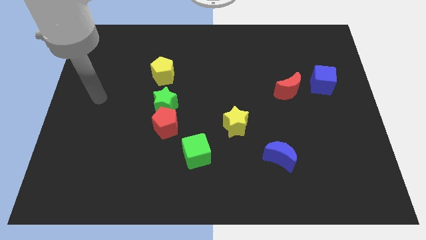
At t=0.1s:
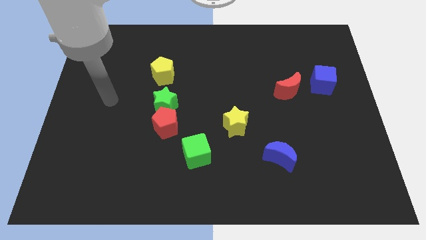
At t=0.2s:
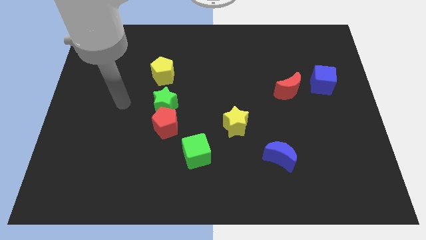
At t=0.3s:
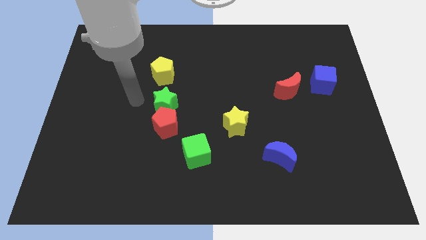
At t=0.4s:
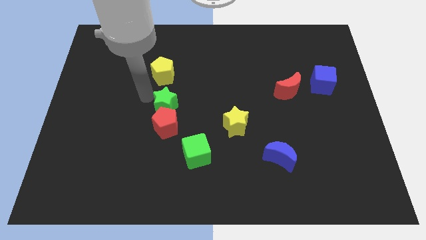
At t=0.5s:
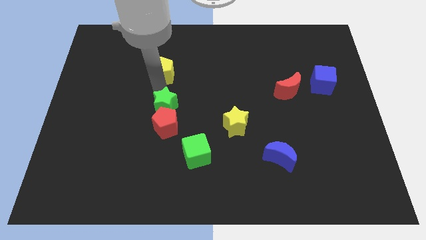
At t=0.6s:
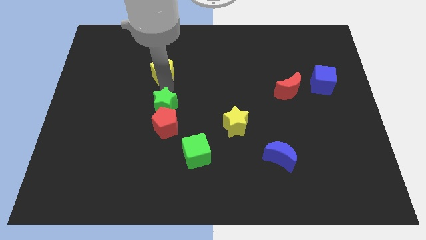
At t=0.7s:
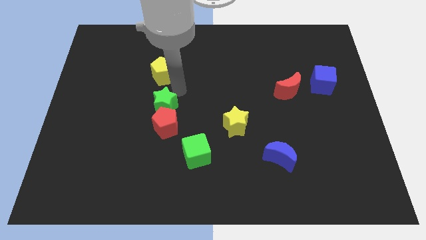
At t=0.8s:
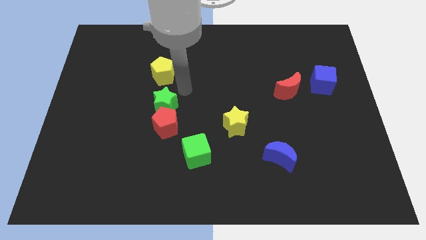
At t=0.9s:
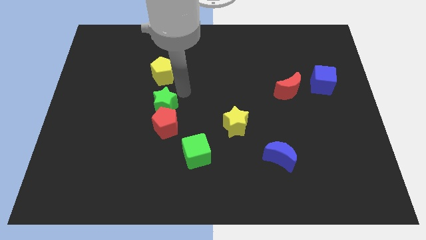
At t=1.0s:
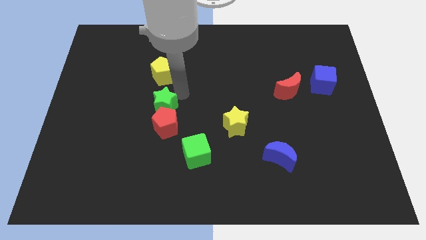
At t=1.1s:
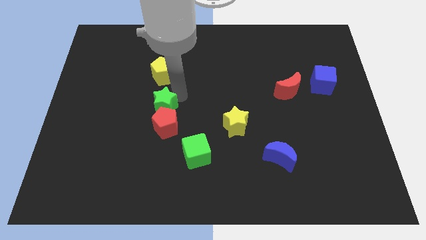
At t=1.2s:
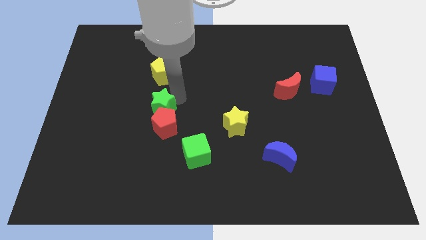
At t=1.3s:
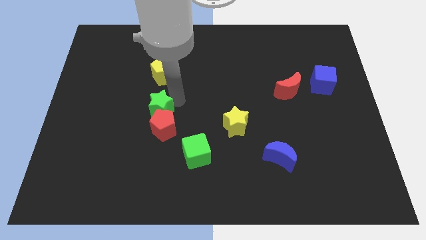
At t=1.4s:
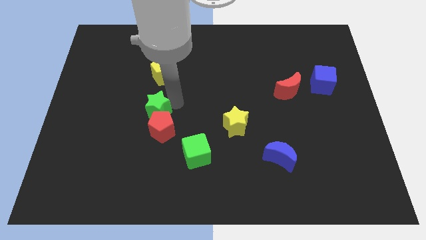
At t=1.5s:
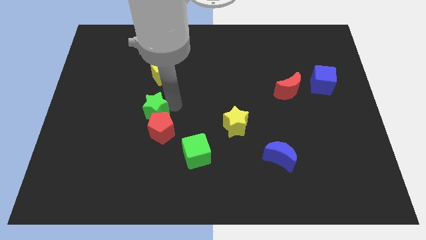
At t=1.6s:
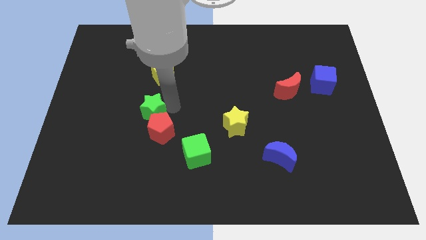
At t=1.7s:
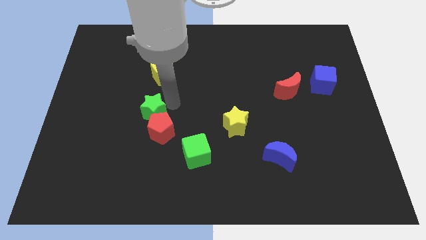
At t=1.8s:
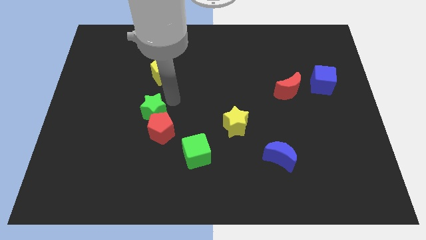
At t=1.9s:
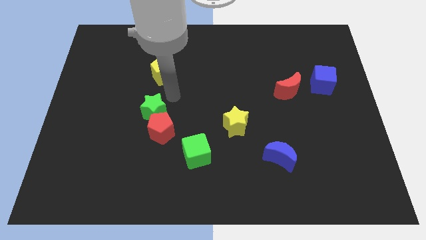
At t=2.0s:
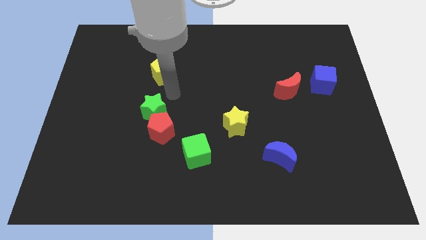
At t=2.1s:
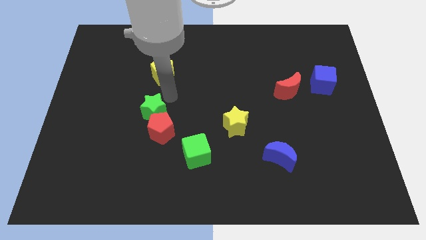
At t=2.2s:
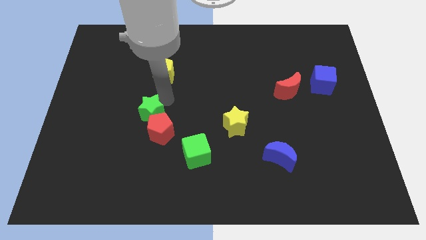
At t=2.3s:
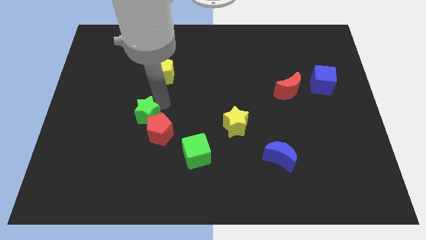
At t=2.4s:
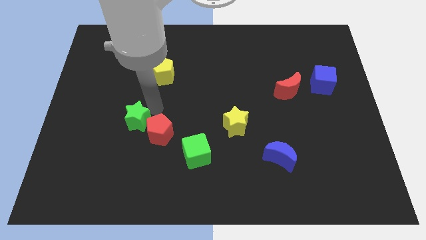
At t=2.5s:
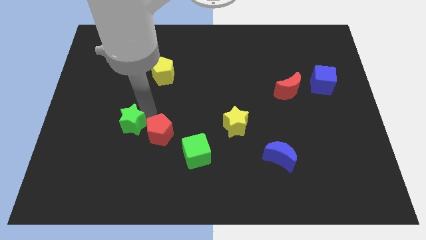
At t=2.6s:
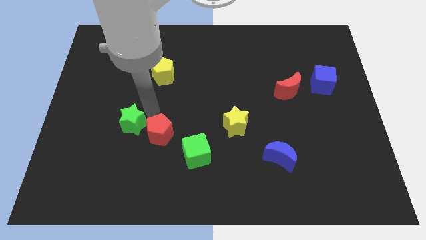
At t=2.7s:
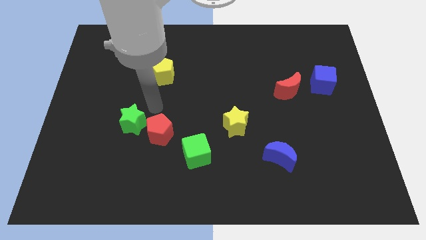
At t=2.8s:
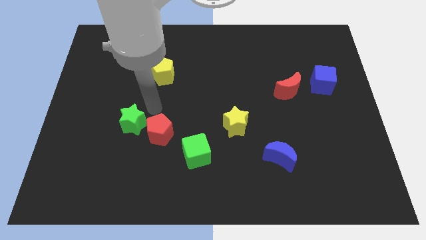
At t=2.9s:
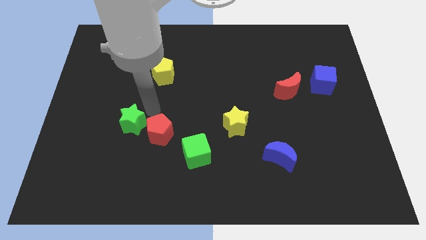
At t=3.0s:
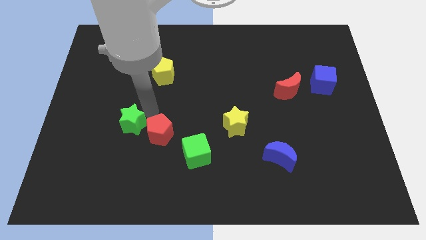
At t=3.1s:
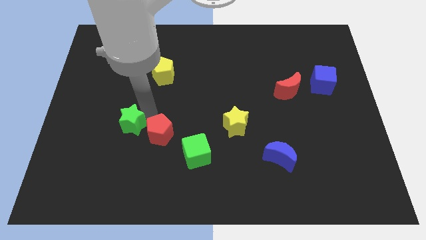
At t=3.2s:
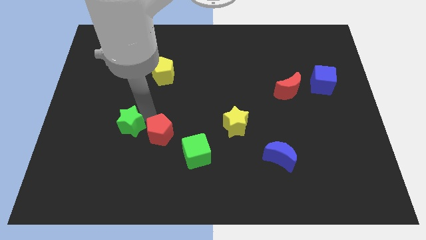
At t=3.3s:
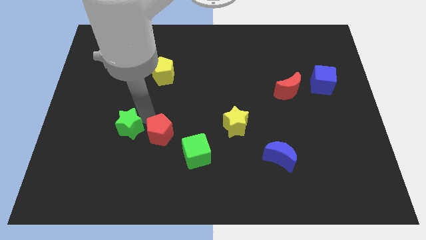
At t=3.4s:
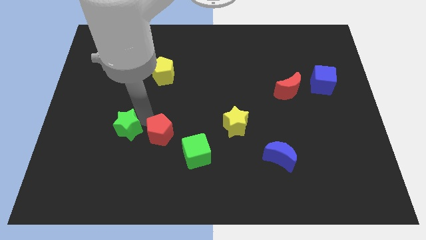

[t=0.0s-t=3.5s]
pull the green star apart from the red pentagon and yellow pentagon

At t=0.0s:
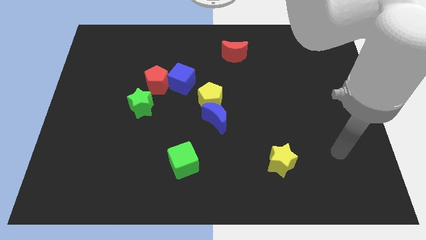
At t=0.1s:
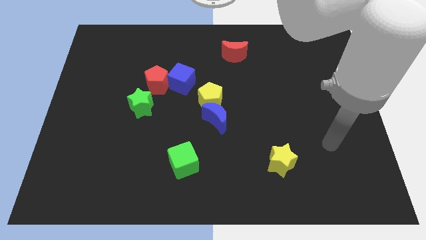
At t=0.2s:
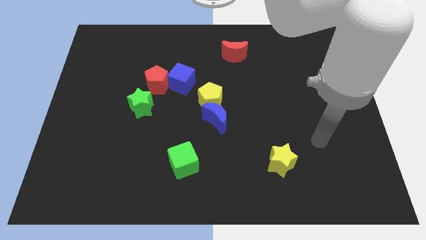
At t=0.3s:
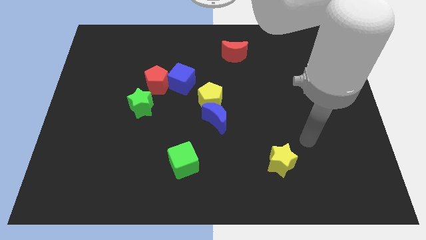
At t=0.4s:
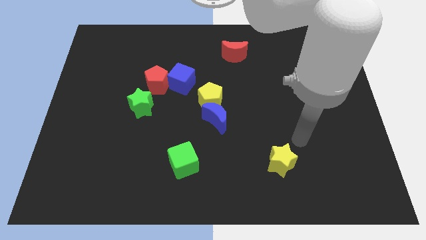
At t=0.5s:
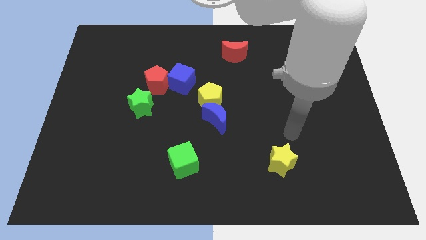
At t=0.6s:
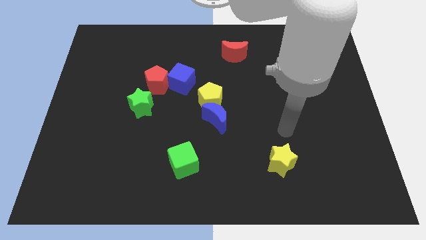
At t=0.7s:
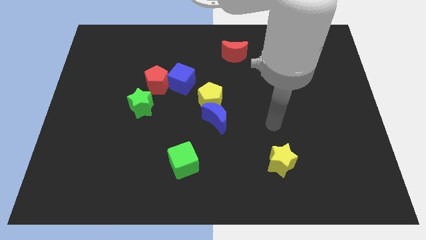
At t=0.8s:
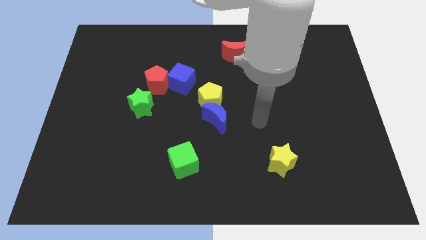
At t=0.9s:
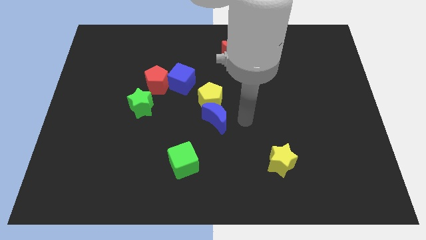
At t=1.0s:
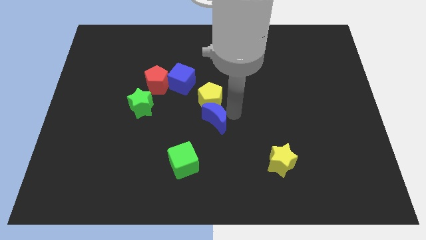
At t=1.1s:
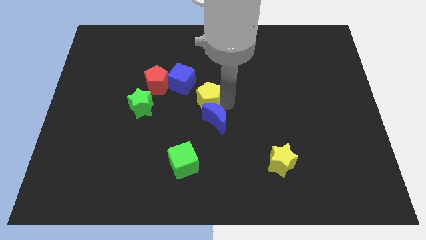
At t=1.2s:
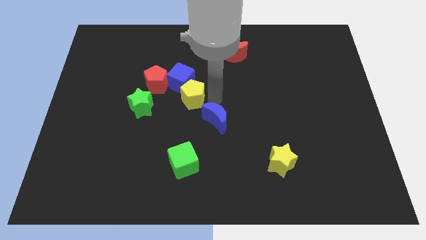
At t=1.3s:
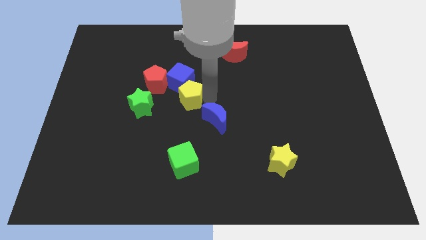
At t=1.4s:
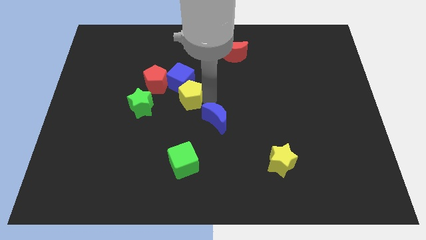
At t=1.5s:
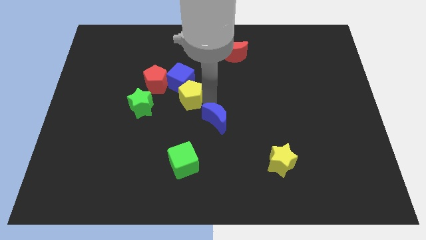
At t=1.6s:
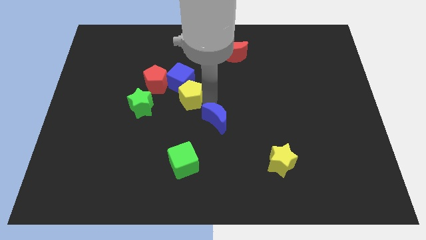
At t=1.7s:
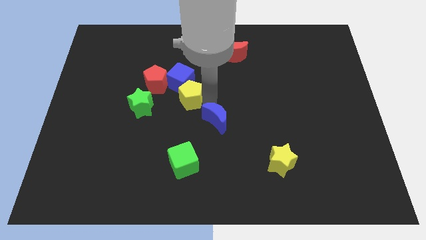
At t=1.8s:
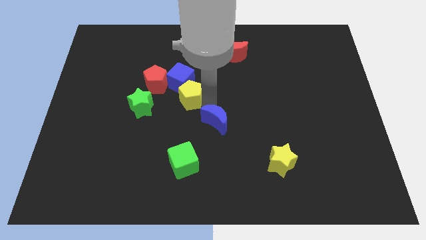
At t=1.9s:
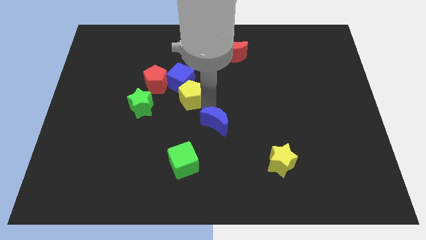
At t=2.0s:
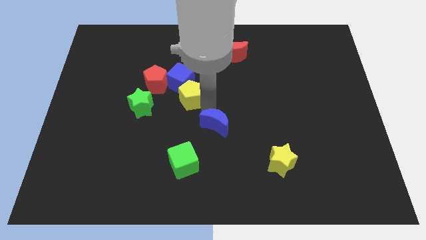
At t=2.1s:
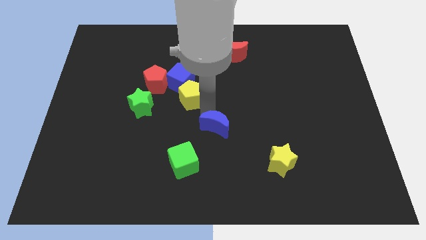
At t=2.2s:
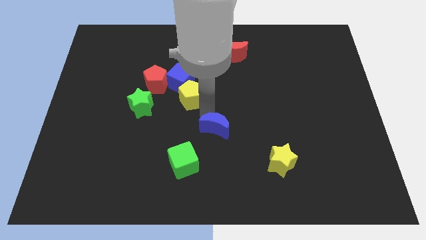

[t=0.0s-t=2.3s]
move the blue moon away from the yellow pentagon

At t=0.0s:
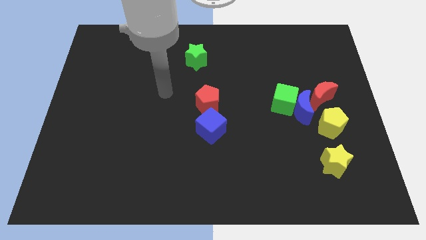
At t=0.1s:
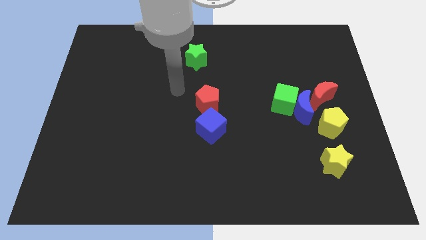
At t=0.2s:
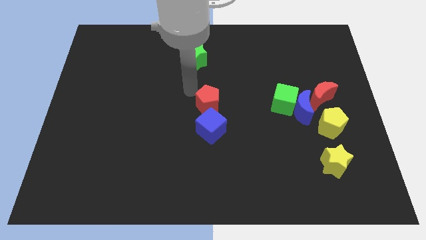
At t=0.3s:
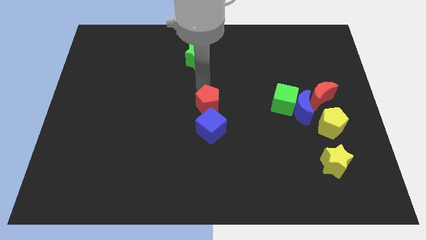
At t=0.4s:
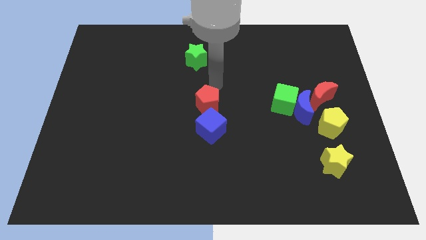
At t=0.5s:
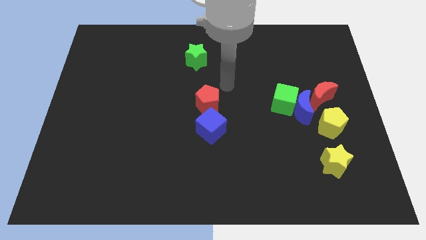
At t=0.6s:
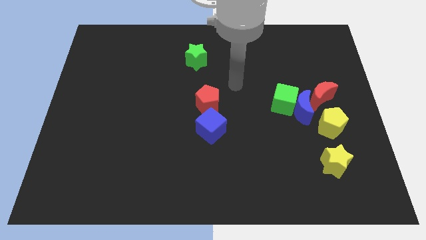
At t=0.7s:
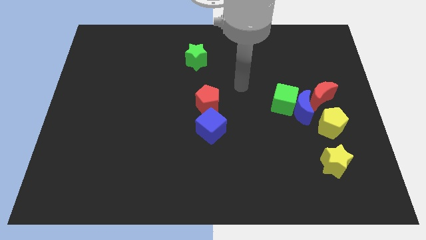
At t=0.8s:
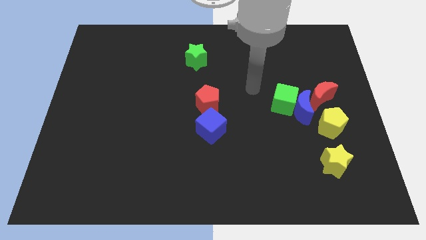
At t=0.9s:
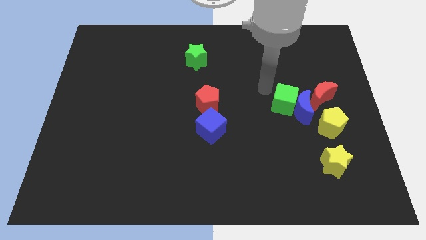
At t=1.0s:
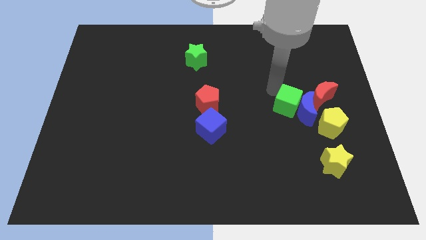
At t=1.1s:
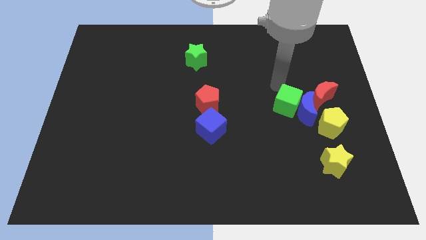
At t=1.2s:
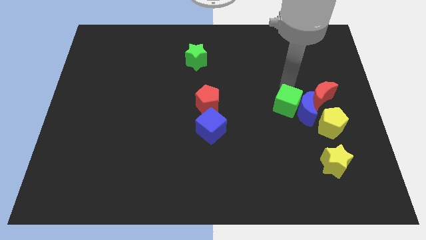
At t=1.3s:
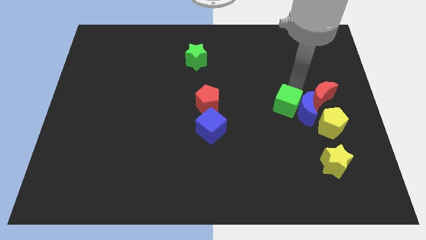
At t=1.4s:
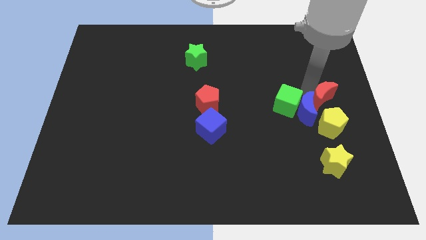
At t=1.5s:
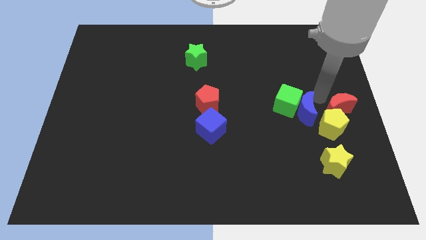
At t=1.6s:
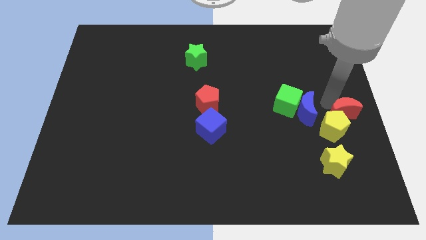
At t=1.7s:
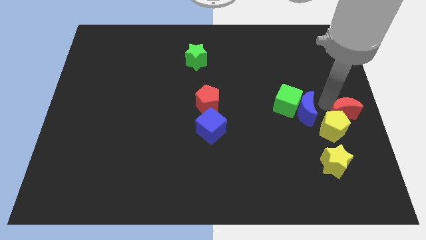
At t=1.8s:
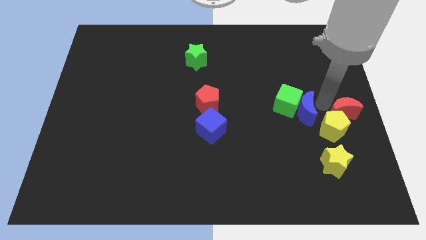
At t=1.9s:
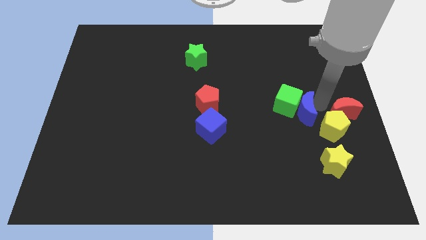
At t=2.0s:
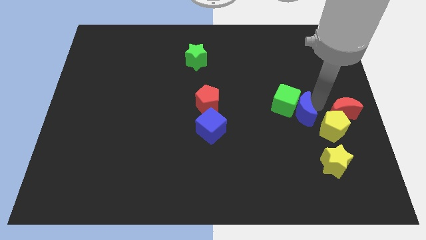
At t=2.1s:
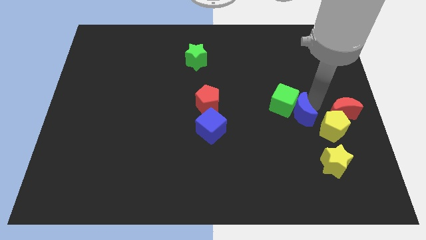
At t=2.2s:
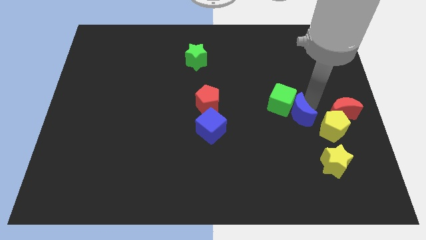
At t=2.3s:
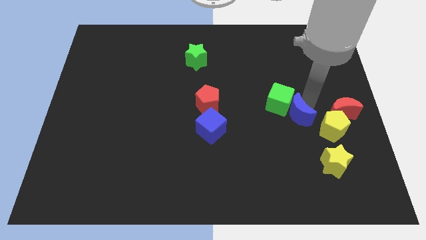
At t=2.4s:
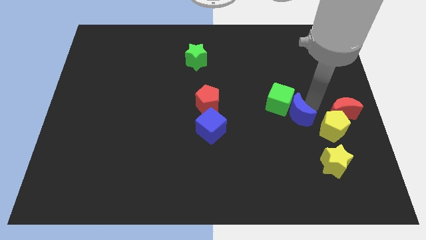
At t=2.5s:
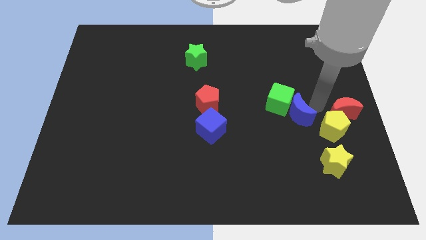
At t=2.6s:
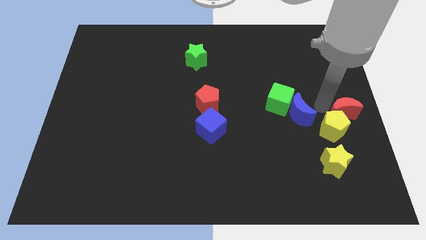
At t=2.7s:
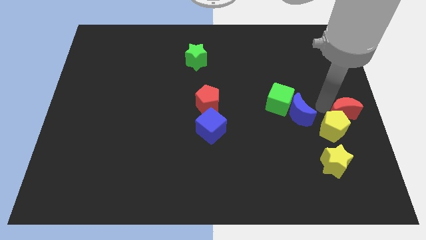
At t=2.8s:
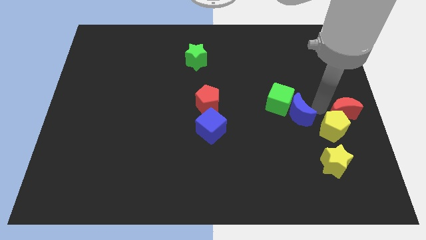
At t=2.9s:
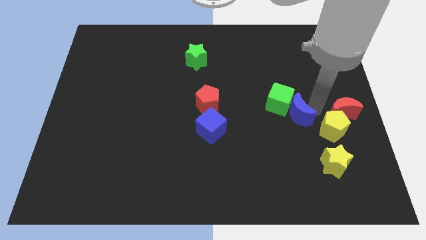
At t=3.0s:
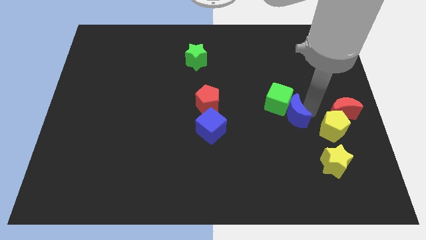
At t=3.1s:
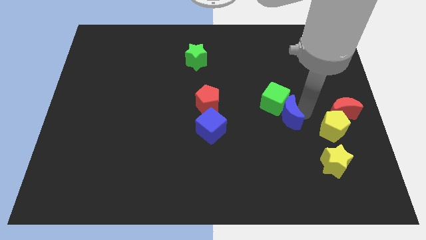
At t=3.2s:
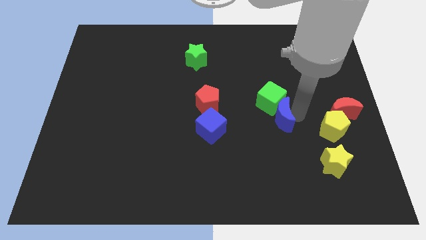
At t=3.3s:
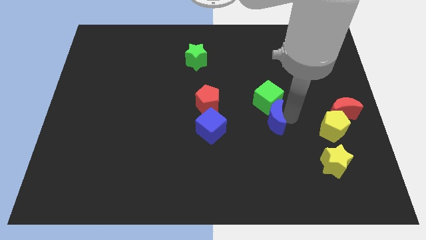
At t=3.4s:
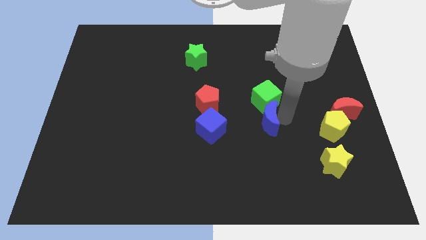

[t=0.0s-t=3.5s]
move the blue moon away from the green cube, red moon, and yellow pentagon

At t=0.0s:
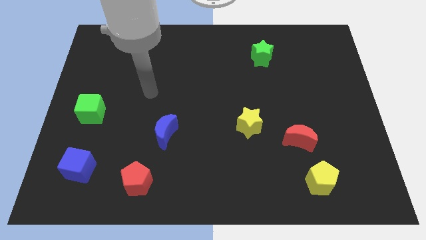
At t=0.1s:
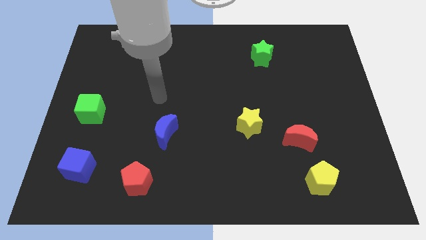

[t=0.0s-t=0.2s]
move the red moon away from the yellow pentagon
